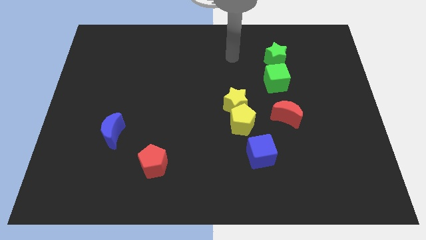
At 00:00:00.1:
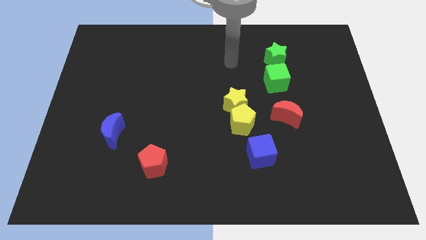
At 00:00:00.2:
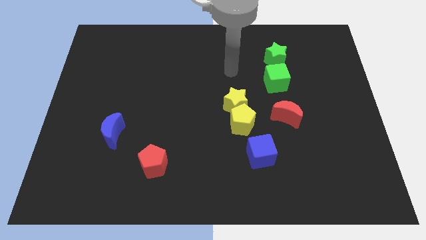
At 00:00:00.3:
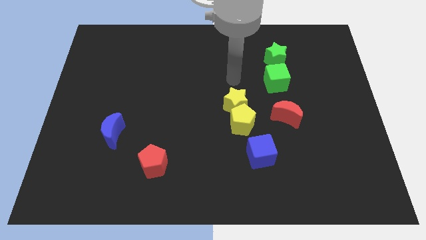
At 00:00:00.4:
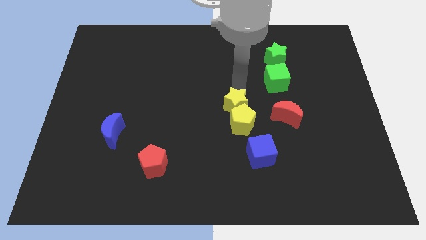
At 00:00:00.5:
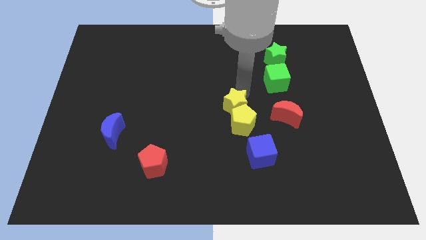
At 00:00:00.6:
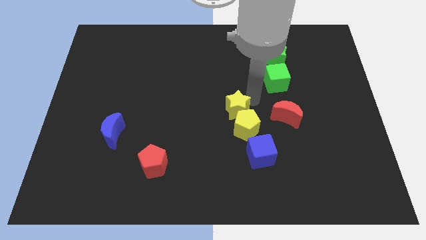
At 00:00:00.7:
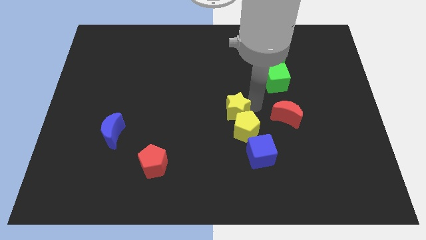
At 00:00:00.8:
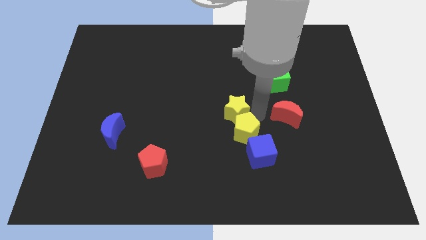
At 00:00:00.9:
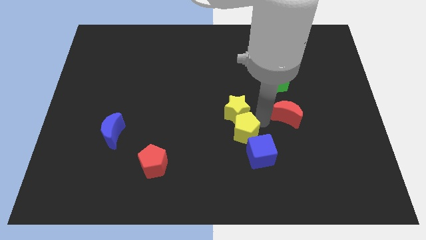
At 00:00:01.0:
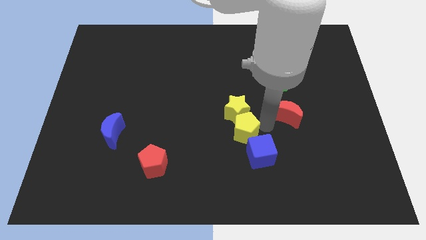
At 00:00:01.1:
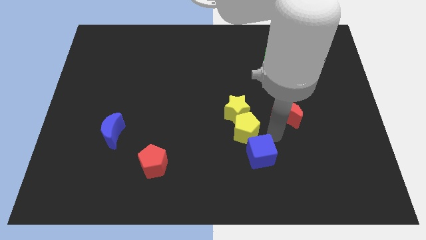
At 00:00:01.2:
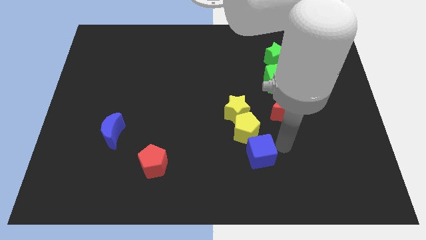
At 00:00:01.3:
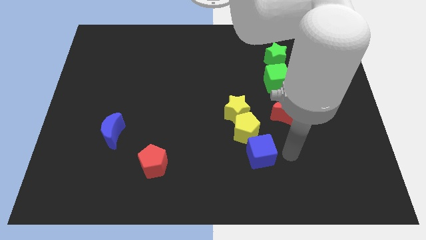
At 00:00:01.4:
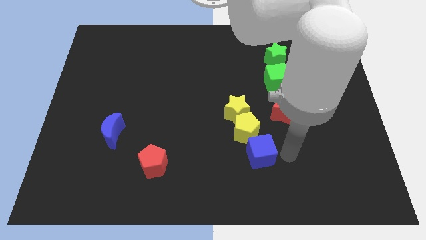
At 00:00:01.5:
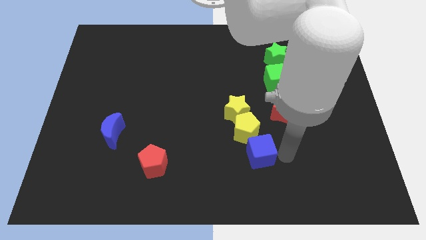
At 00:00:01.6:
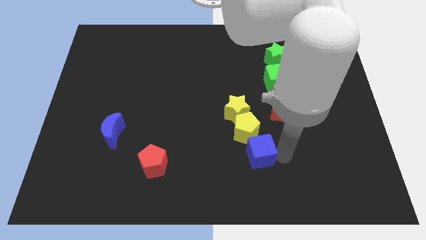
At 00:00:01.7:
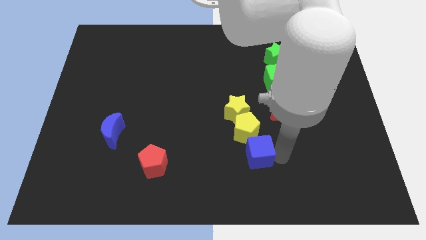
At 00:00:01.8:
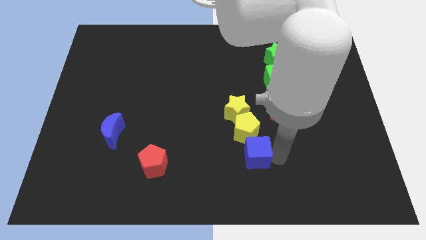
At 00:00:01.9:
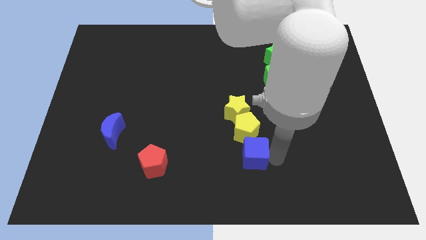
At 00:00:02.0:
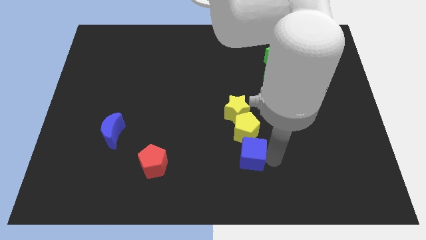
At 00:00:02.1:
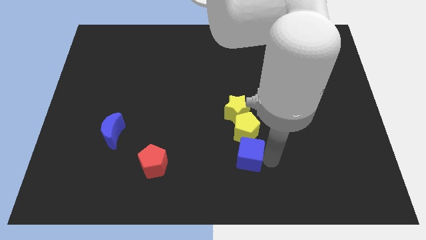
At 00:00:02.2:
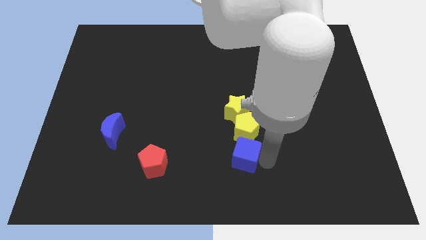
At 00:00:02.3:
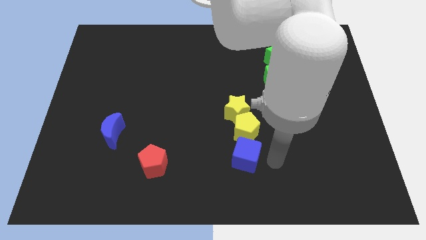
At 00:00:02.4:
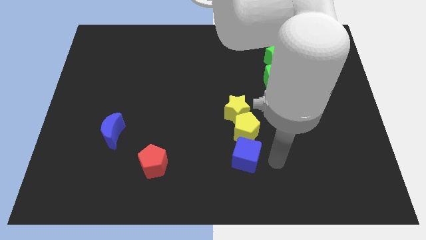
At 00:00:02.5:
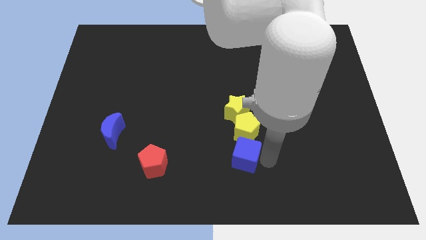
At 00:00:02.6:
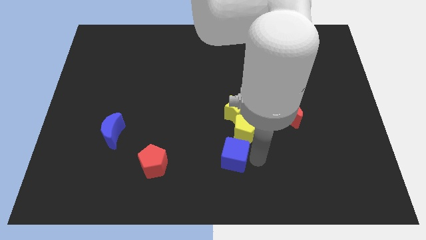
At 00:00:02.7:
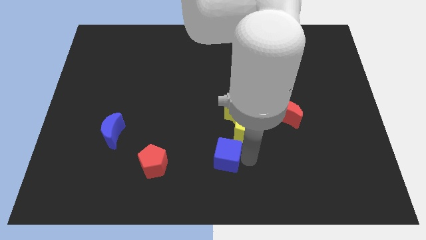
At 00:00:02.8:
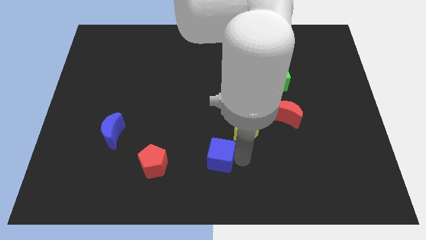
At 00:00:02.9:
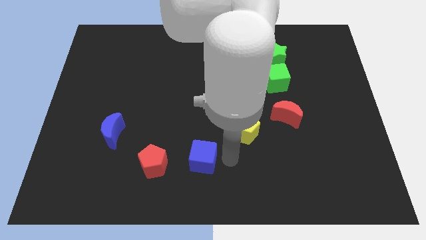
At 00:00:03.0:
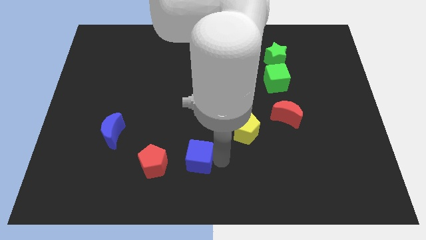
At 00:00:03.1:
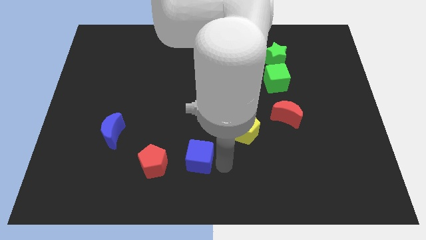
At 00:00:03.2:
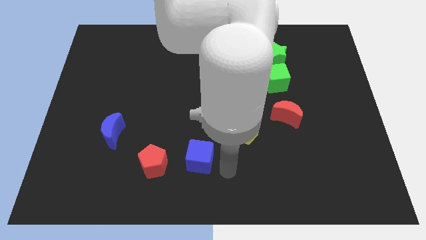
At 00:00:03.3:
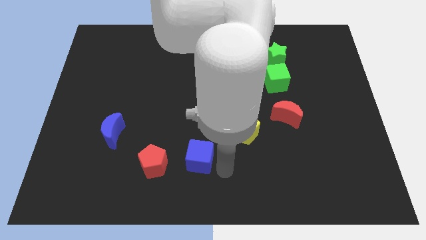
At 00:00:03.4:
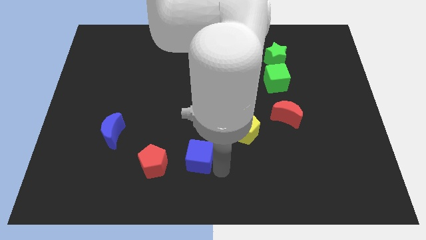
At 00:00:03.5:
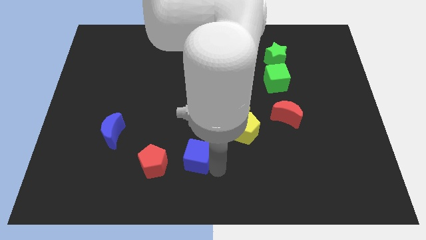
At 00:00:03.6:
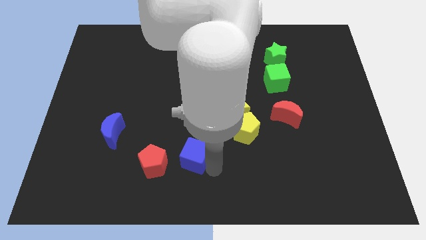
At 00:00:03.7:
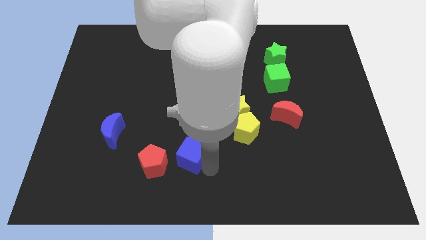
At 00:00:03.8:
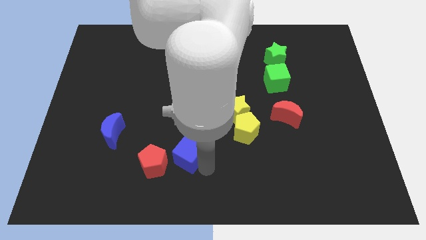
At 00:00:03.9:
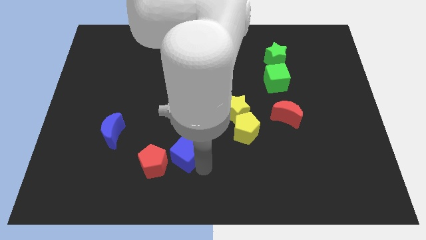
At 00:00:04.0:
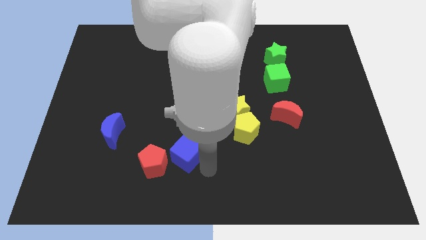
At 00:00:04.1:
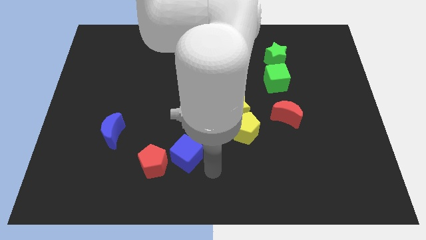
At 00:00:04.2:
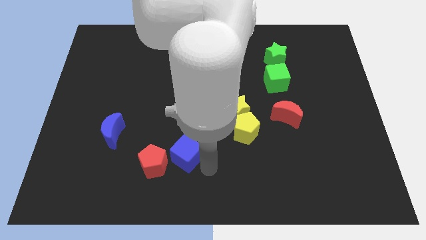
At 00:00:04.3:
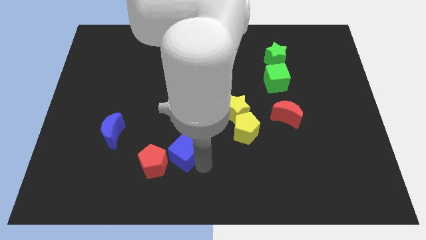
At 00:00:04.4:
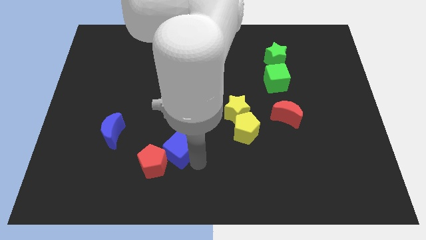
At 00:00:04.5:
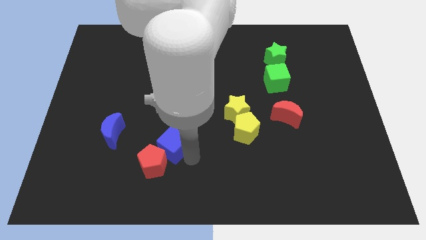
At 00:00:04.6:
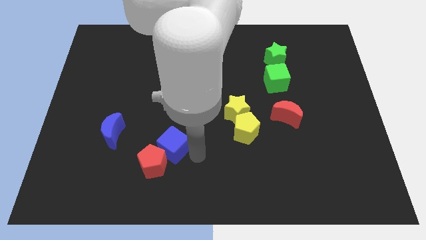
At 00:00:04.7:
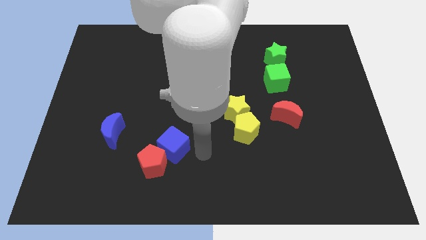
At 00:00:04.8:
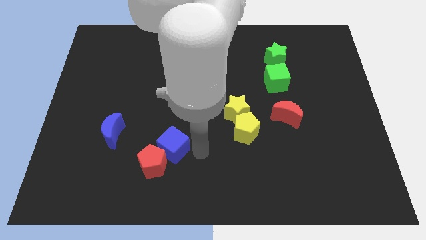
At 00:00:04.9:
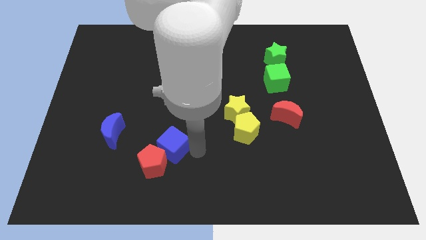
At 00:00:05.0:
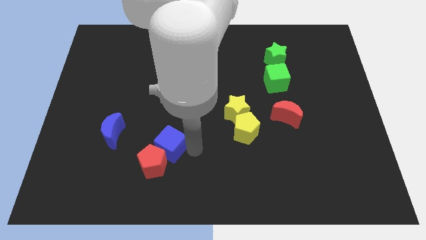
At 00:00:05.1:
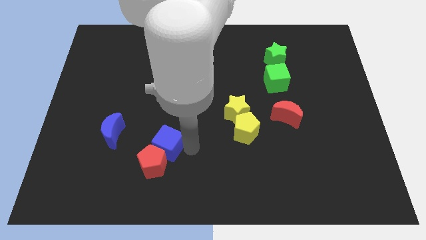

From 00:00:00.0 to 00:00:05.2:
slide the blue cube to the left

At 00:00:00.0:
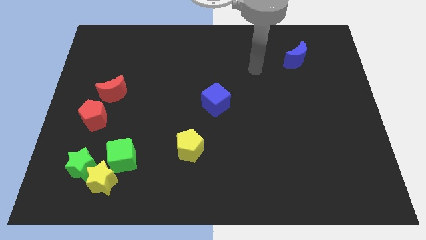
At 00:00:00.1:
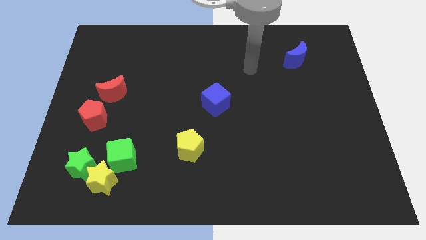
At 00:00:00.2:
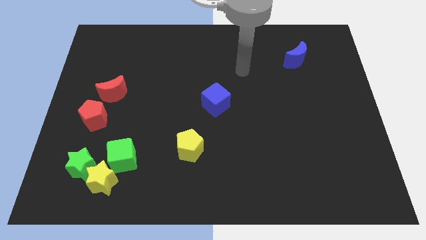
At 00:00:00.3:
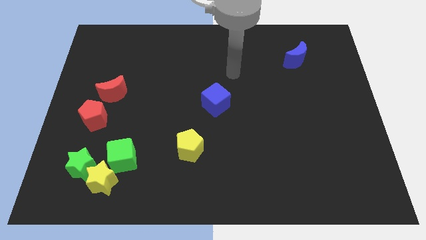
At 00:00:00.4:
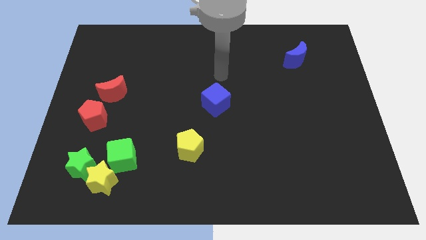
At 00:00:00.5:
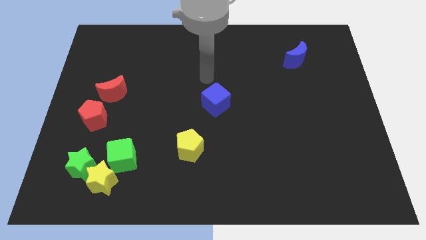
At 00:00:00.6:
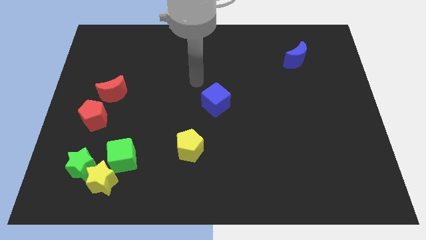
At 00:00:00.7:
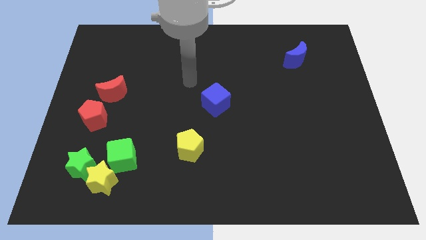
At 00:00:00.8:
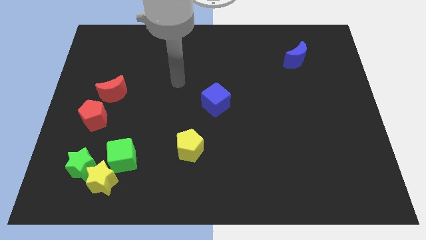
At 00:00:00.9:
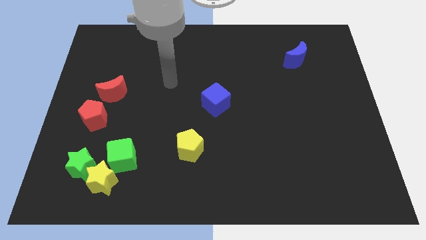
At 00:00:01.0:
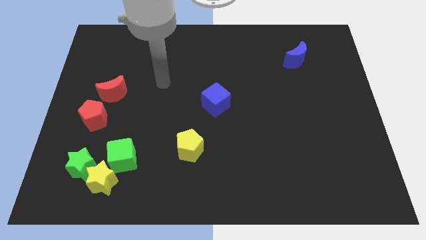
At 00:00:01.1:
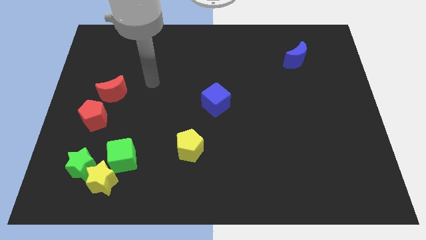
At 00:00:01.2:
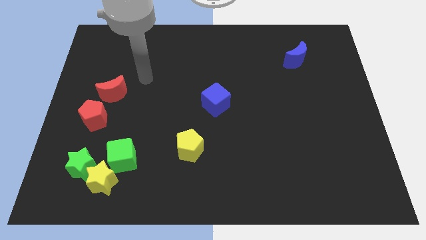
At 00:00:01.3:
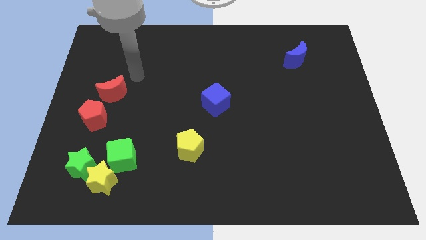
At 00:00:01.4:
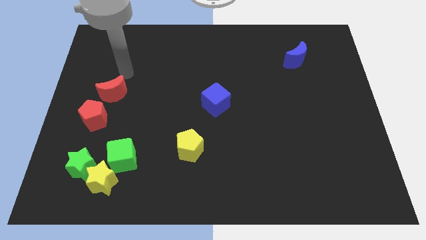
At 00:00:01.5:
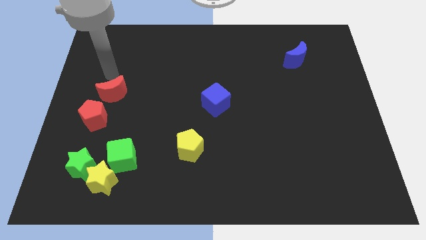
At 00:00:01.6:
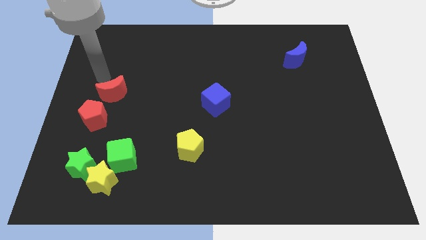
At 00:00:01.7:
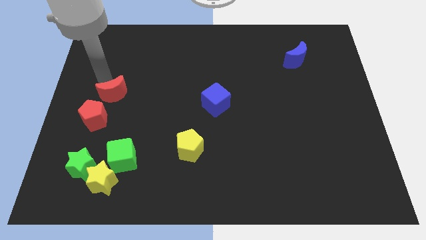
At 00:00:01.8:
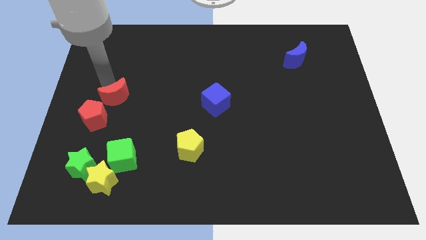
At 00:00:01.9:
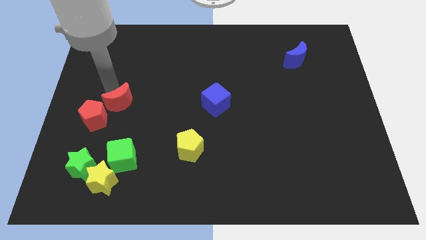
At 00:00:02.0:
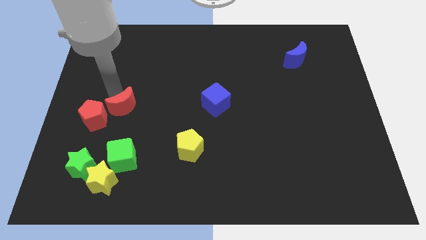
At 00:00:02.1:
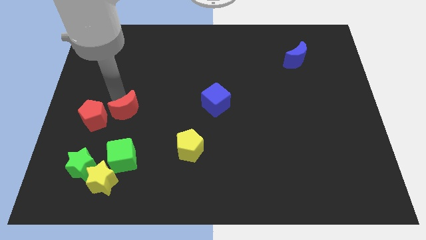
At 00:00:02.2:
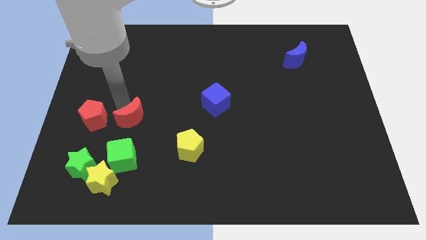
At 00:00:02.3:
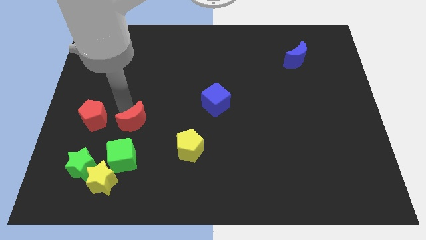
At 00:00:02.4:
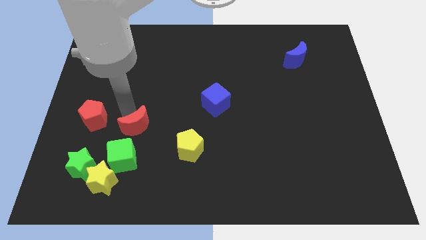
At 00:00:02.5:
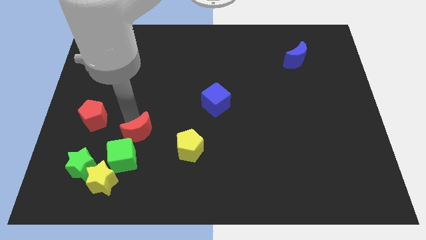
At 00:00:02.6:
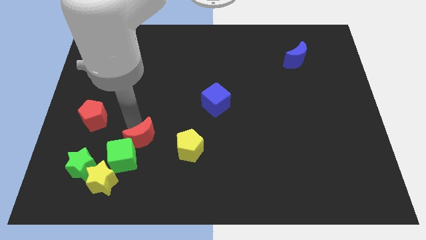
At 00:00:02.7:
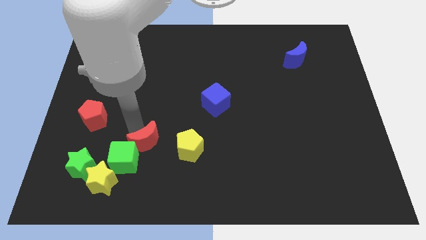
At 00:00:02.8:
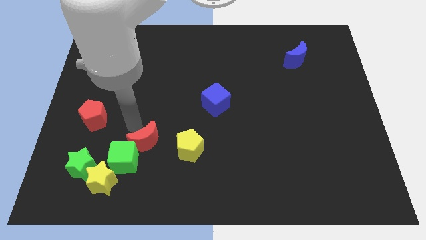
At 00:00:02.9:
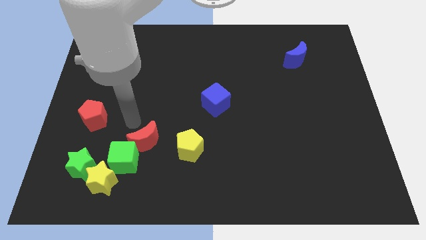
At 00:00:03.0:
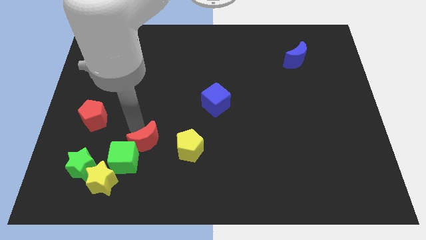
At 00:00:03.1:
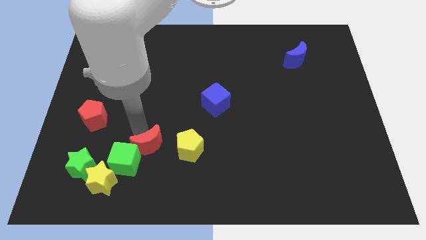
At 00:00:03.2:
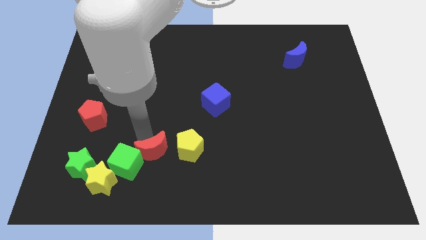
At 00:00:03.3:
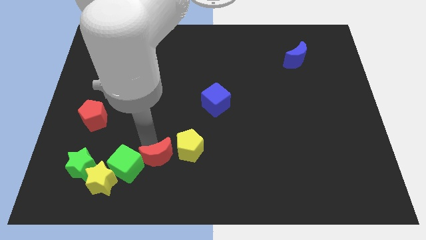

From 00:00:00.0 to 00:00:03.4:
push the red moon downwards and right diagonally
